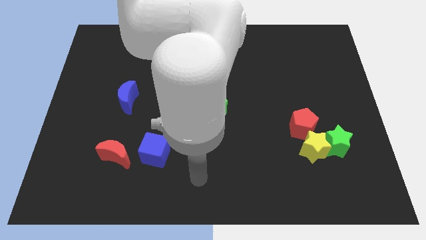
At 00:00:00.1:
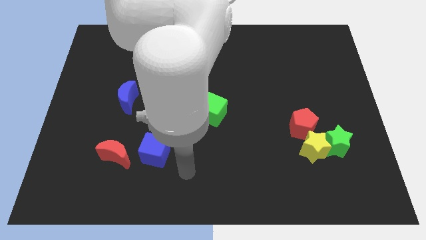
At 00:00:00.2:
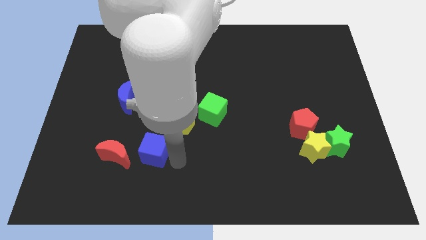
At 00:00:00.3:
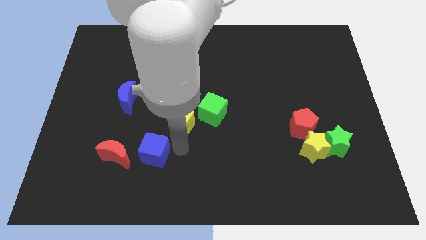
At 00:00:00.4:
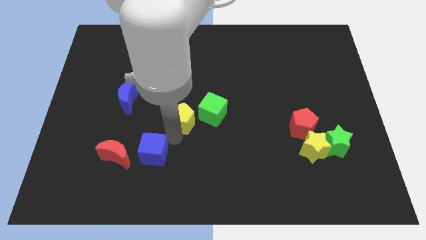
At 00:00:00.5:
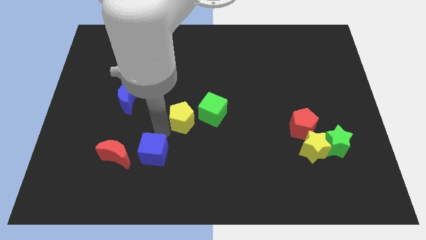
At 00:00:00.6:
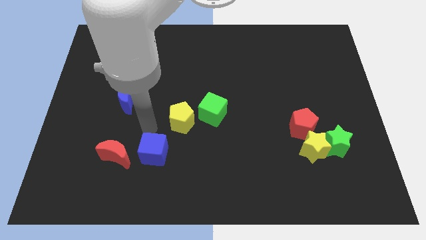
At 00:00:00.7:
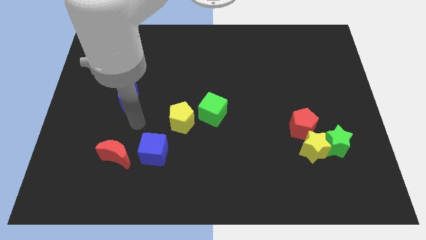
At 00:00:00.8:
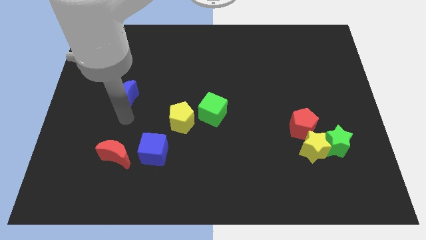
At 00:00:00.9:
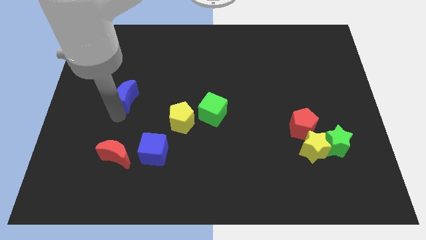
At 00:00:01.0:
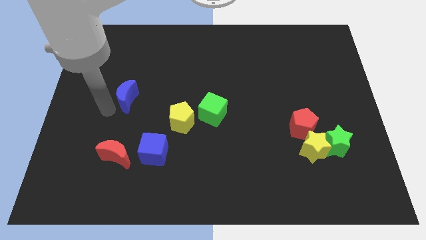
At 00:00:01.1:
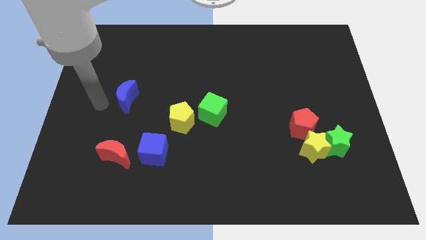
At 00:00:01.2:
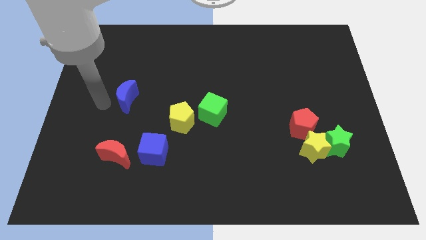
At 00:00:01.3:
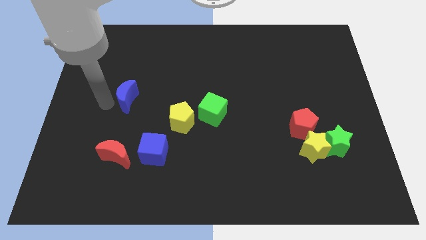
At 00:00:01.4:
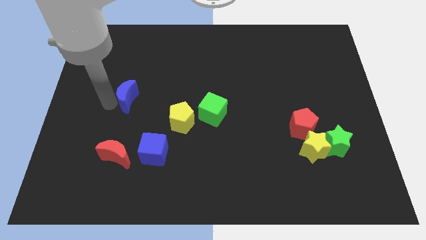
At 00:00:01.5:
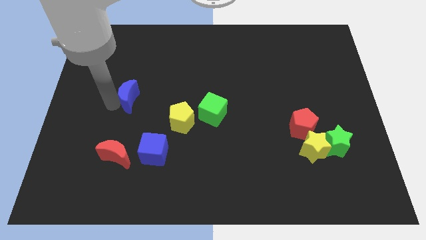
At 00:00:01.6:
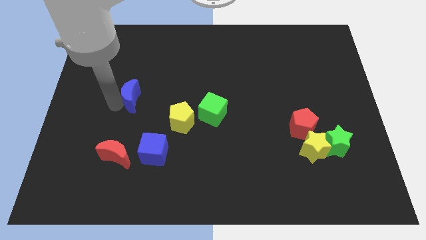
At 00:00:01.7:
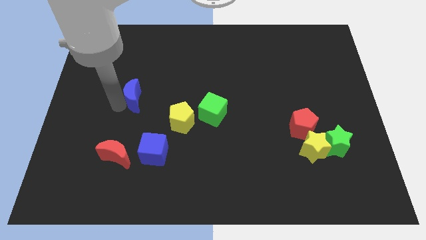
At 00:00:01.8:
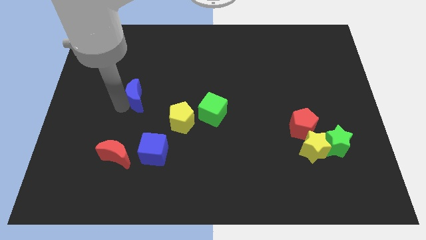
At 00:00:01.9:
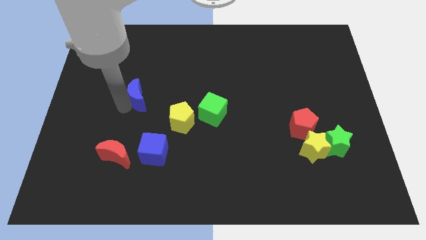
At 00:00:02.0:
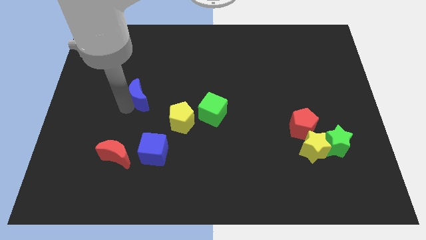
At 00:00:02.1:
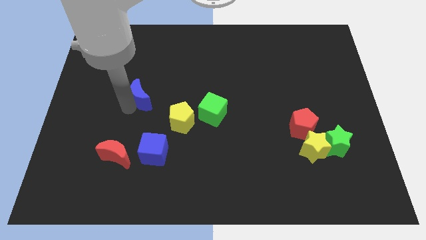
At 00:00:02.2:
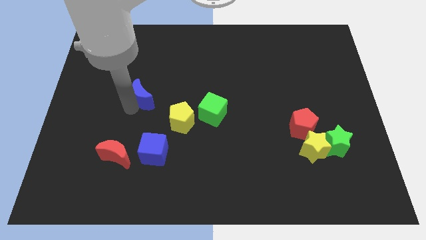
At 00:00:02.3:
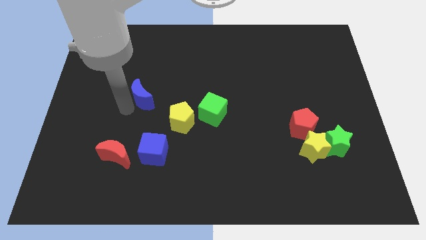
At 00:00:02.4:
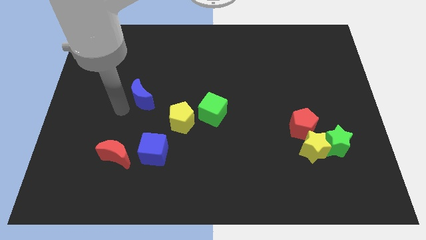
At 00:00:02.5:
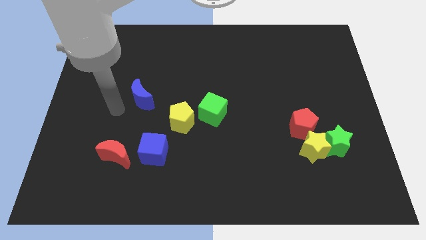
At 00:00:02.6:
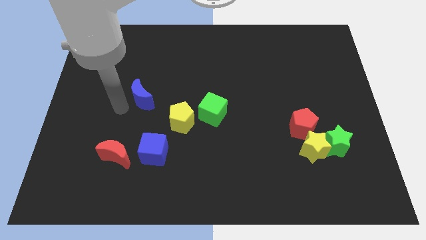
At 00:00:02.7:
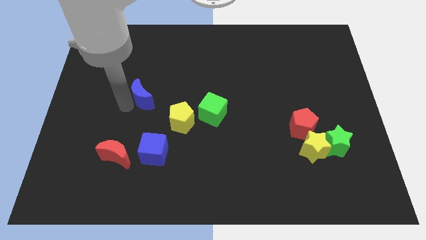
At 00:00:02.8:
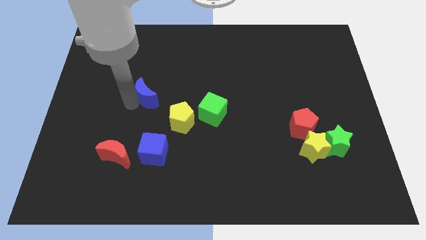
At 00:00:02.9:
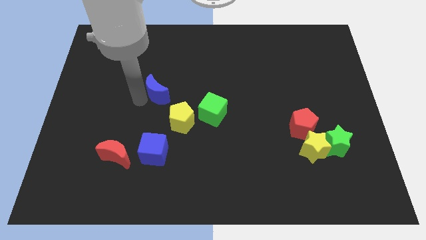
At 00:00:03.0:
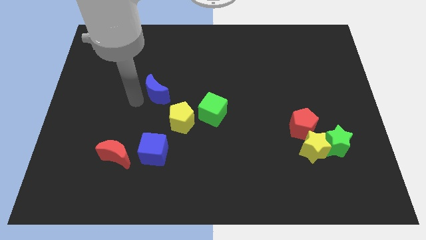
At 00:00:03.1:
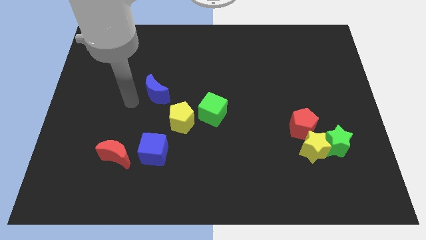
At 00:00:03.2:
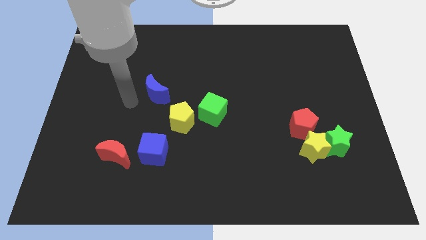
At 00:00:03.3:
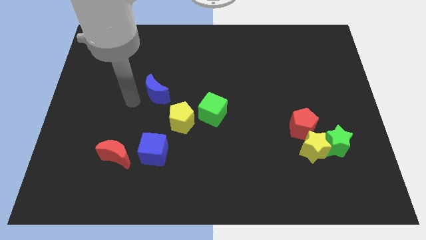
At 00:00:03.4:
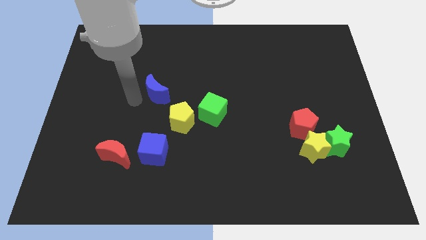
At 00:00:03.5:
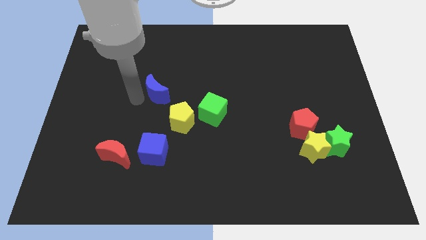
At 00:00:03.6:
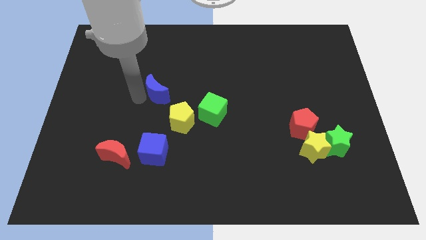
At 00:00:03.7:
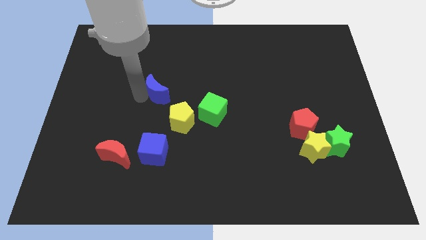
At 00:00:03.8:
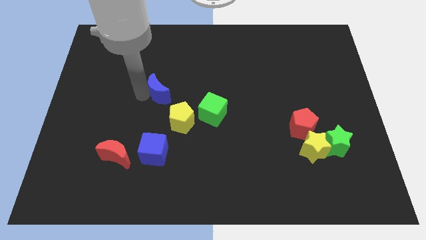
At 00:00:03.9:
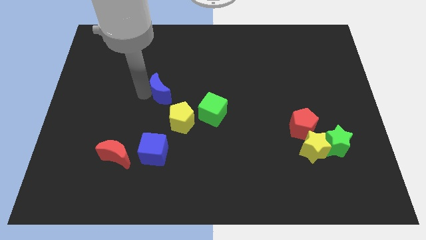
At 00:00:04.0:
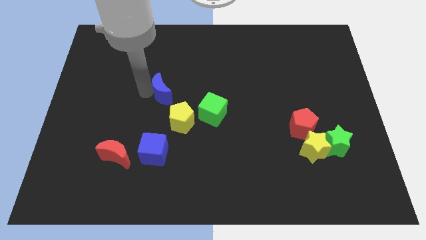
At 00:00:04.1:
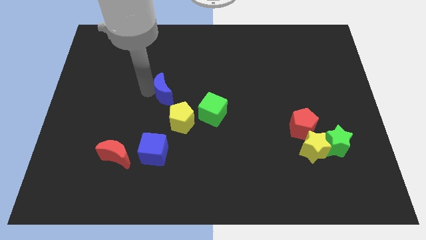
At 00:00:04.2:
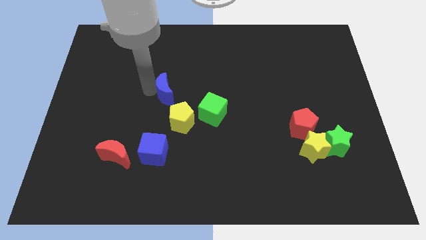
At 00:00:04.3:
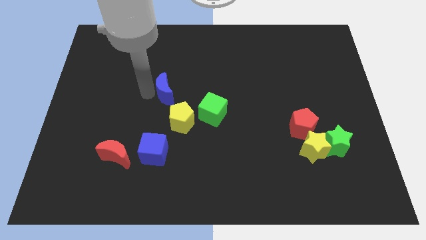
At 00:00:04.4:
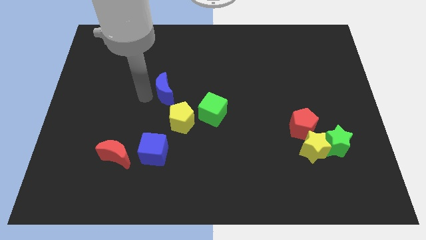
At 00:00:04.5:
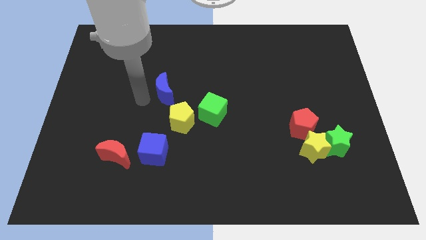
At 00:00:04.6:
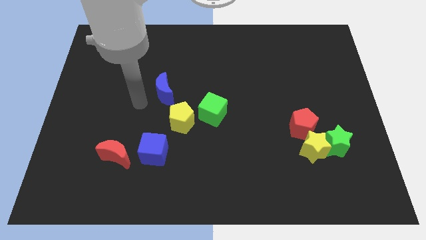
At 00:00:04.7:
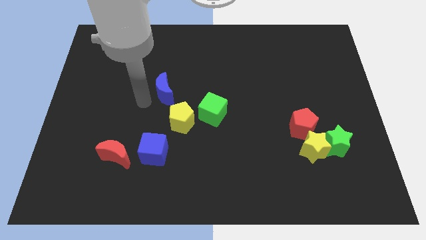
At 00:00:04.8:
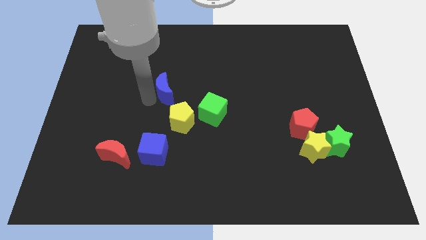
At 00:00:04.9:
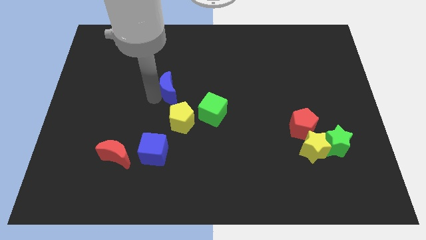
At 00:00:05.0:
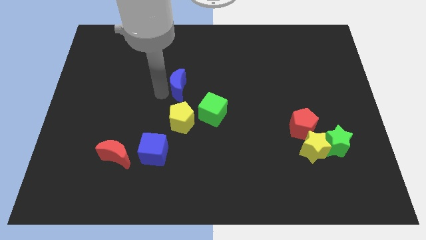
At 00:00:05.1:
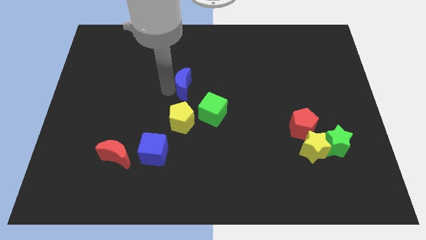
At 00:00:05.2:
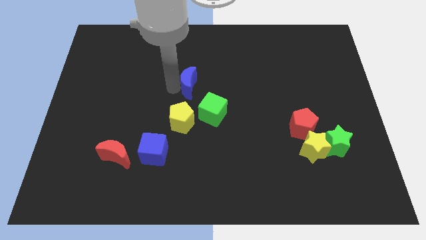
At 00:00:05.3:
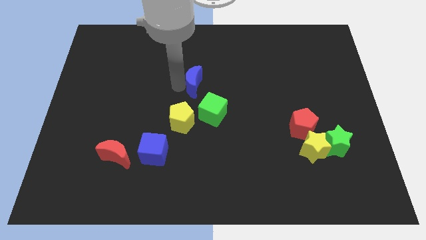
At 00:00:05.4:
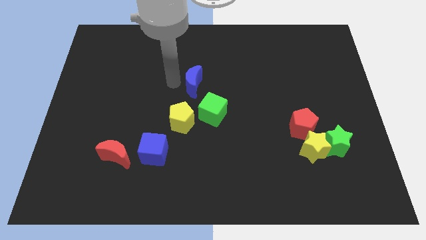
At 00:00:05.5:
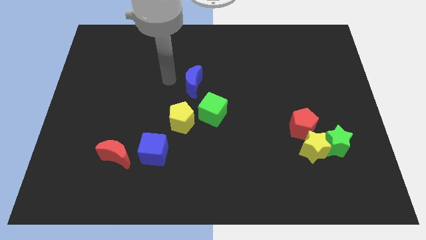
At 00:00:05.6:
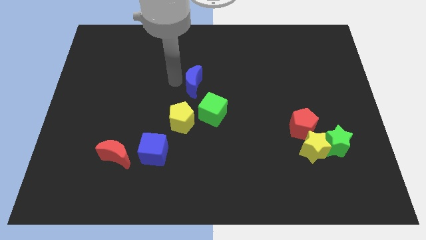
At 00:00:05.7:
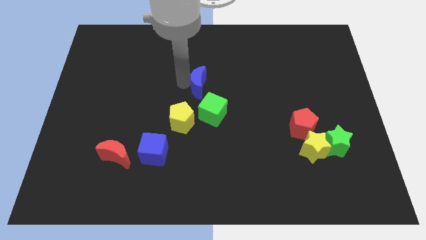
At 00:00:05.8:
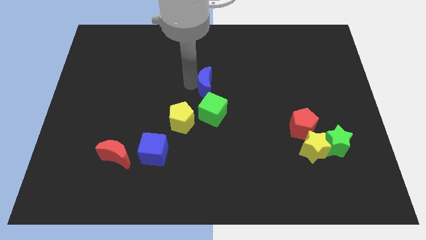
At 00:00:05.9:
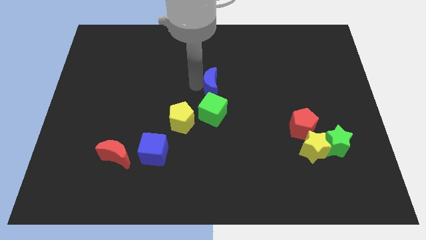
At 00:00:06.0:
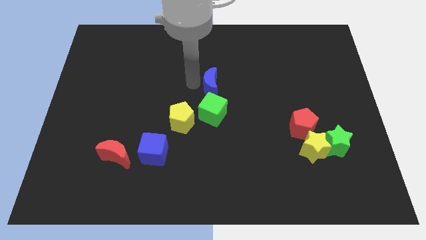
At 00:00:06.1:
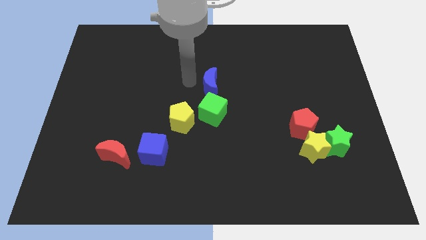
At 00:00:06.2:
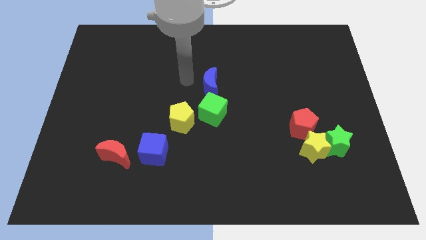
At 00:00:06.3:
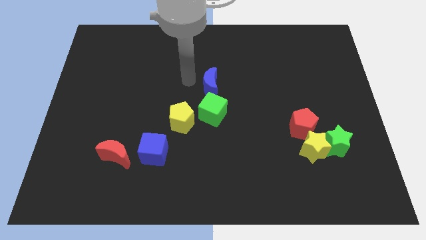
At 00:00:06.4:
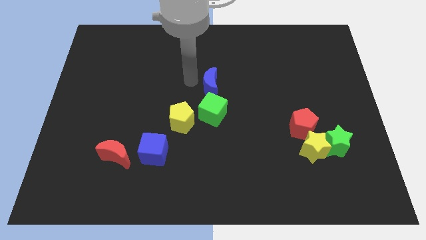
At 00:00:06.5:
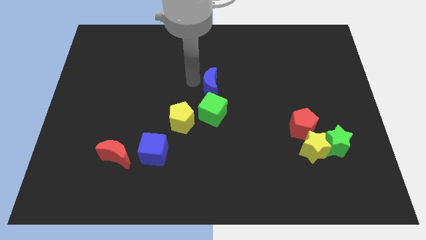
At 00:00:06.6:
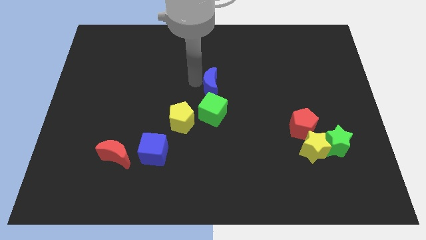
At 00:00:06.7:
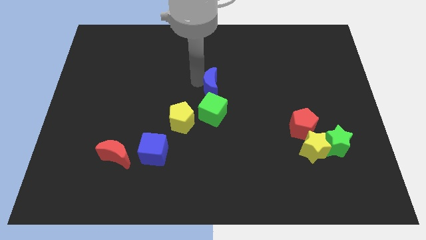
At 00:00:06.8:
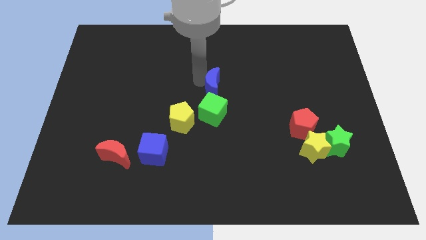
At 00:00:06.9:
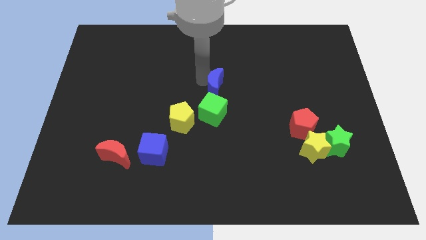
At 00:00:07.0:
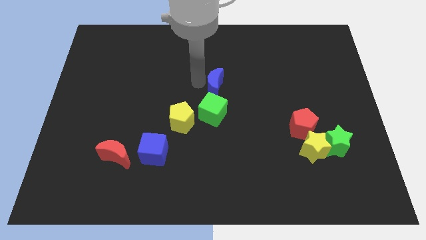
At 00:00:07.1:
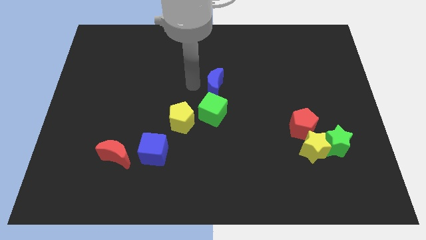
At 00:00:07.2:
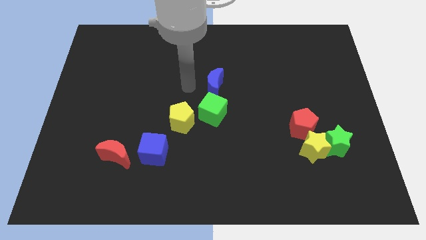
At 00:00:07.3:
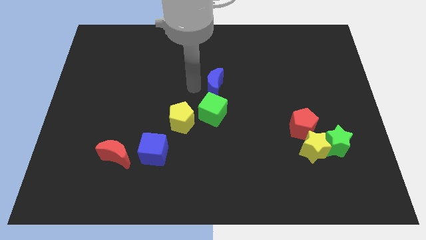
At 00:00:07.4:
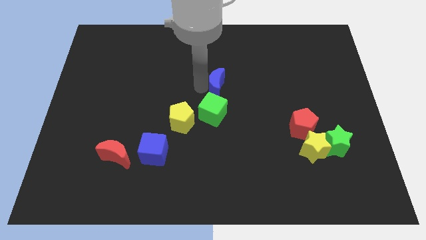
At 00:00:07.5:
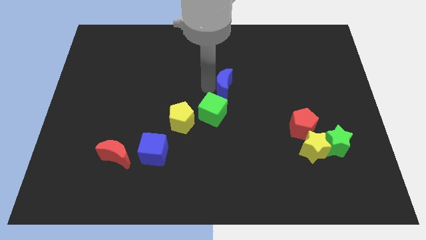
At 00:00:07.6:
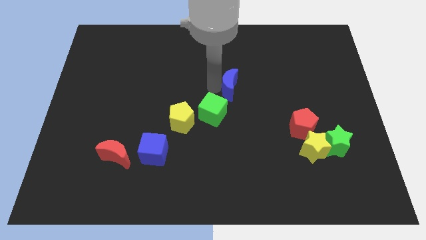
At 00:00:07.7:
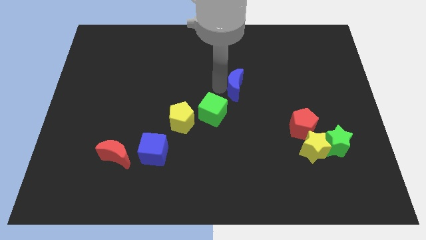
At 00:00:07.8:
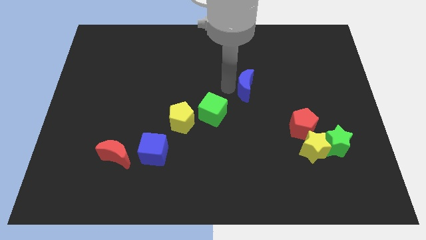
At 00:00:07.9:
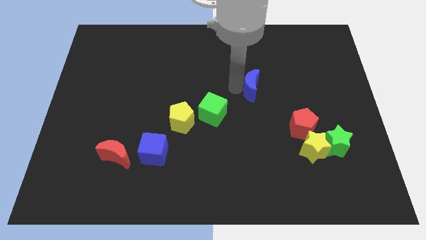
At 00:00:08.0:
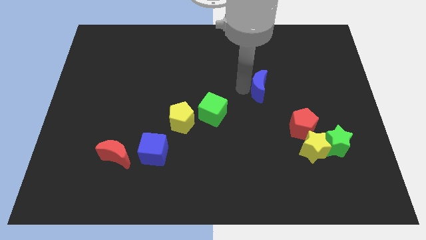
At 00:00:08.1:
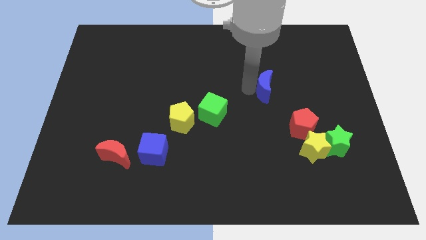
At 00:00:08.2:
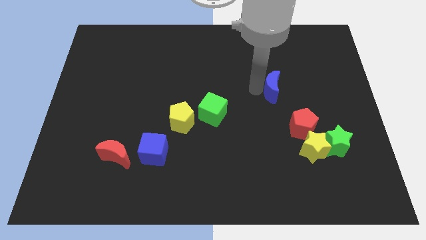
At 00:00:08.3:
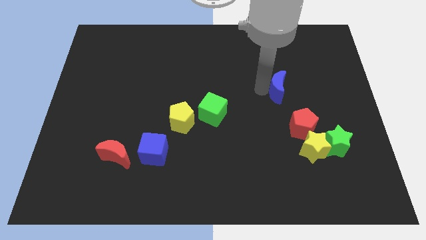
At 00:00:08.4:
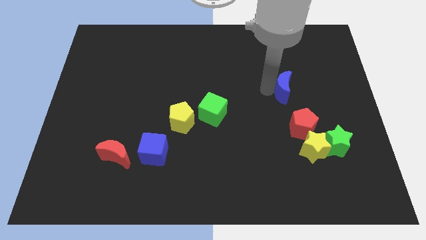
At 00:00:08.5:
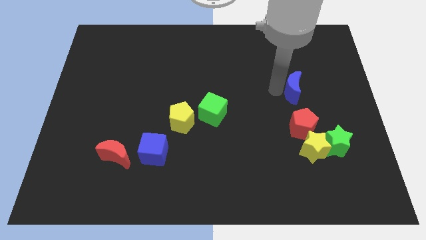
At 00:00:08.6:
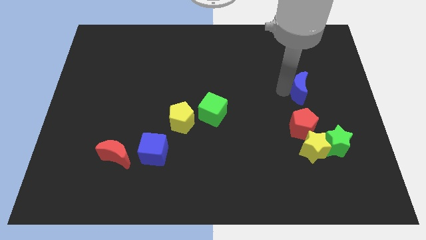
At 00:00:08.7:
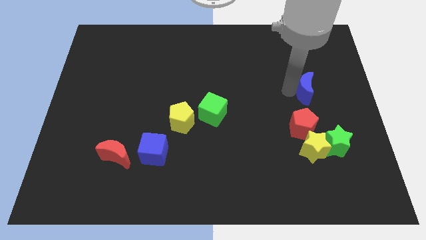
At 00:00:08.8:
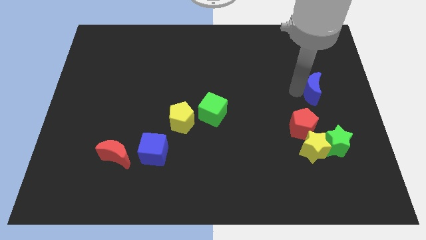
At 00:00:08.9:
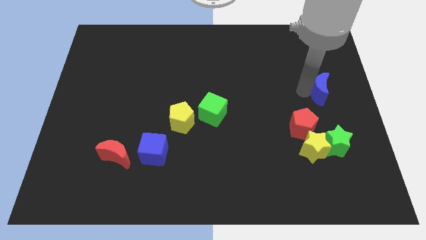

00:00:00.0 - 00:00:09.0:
push the blue moon to the right side
